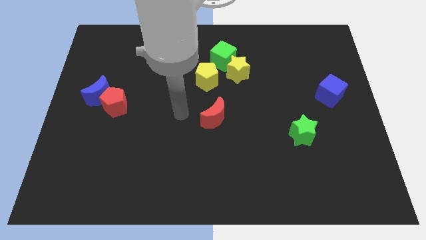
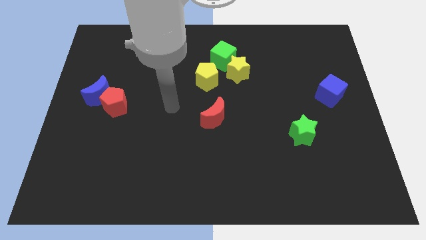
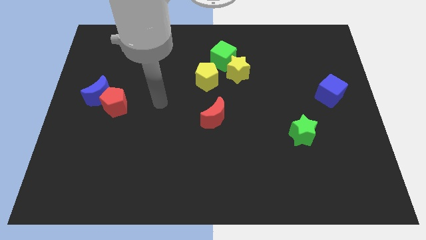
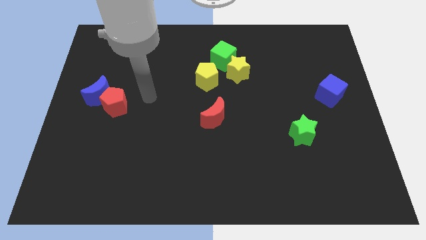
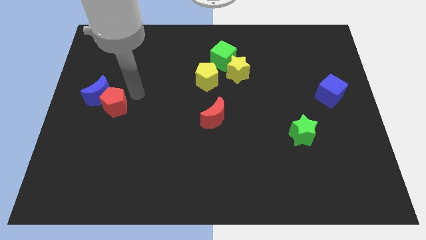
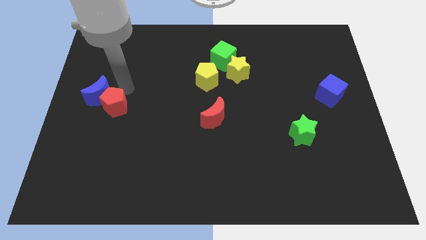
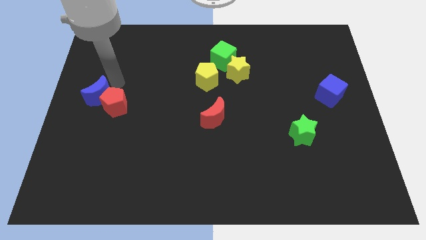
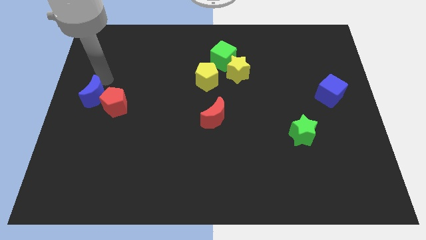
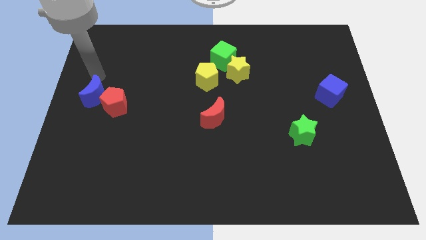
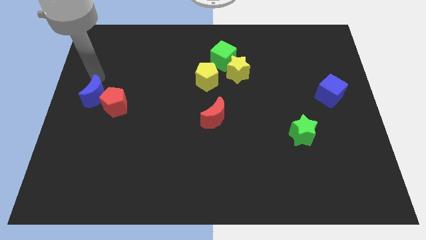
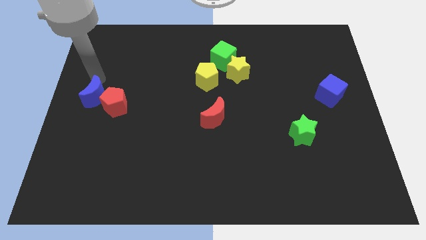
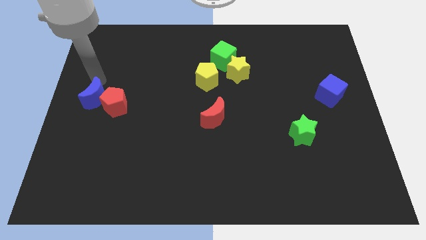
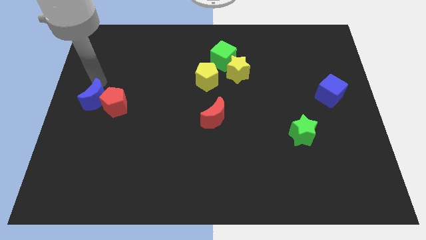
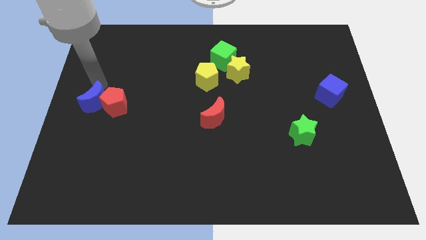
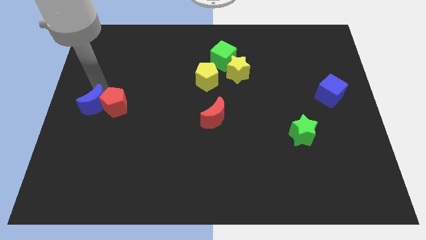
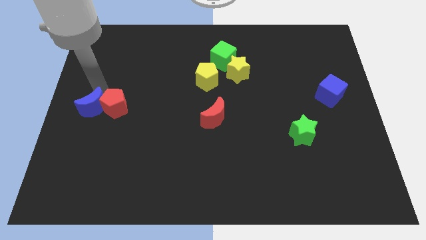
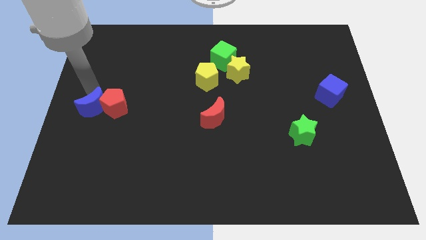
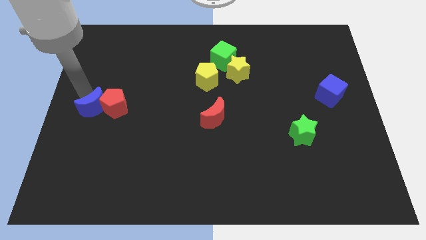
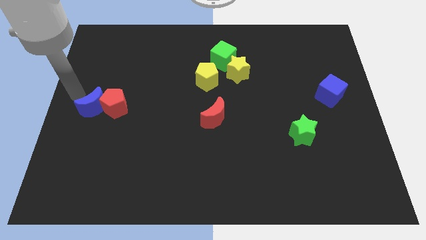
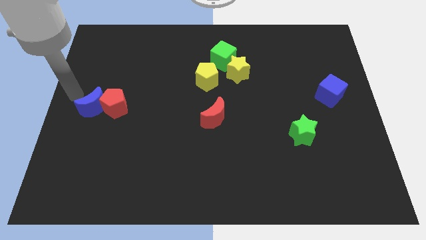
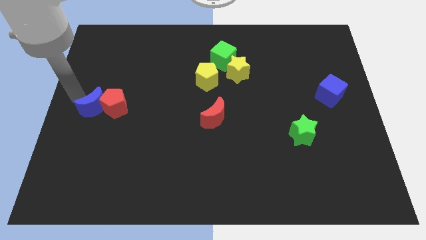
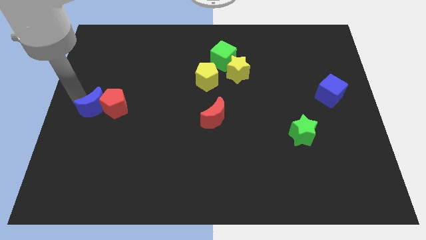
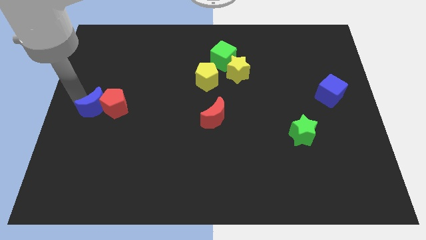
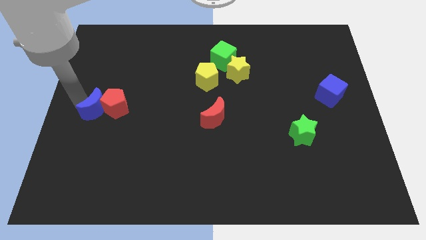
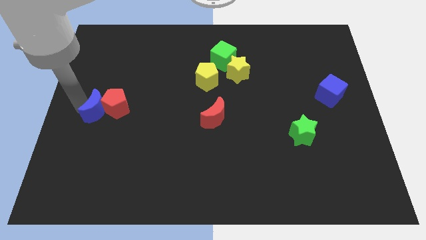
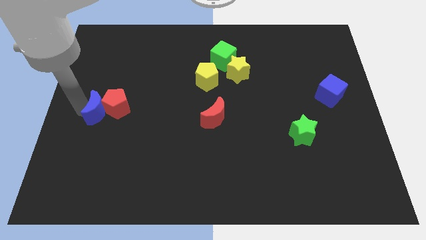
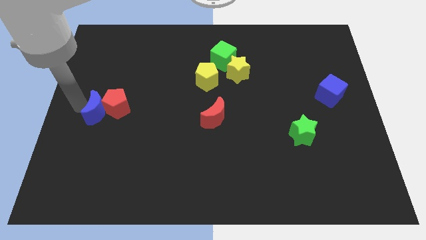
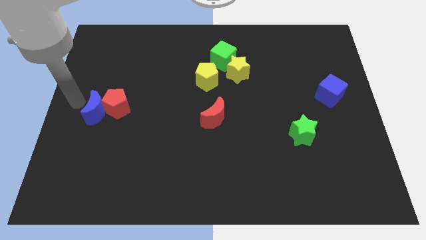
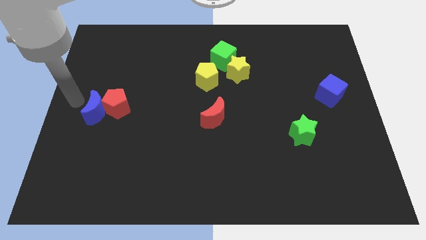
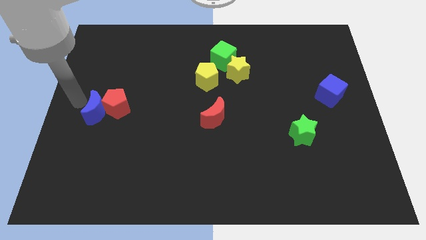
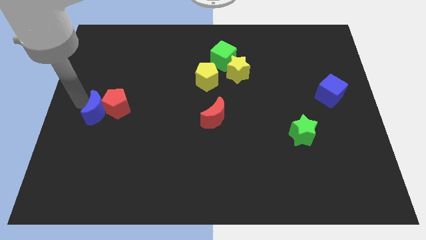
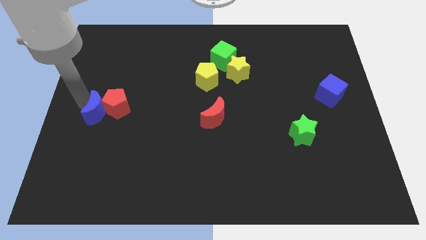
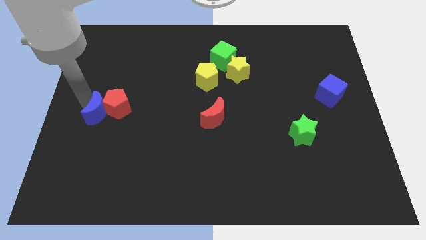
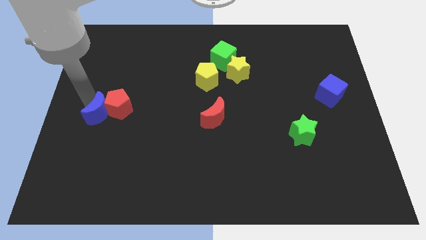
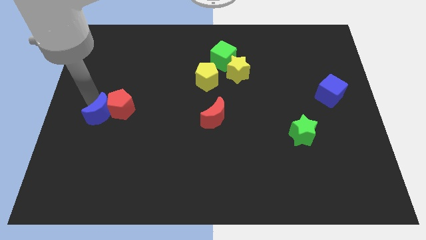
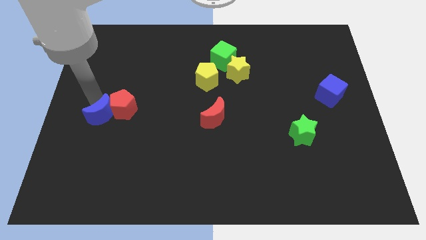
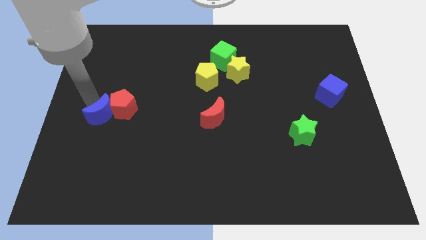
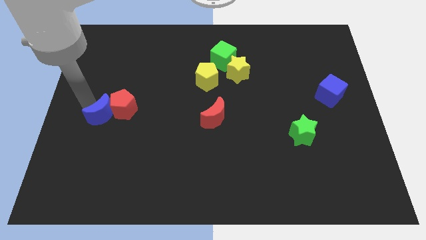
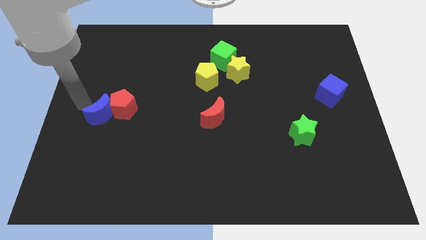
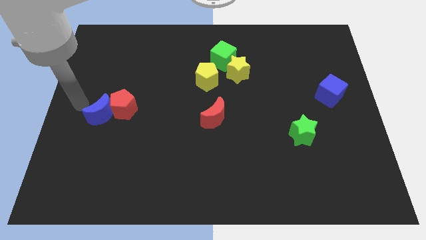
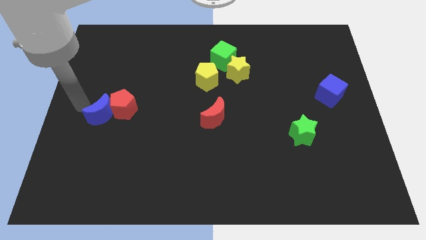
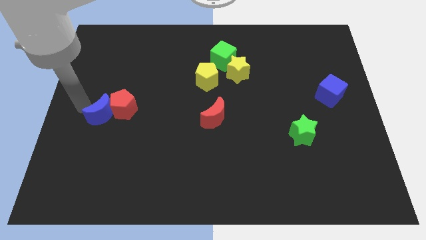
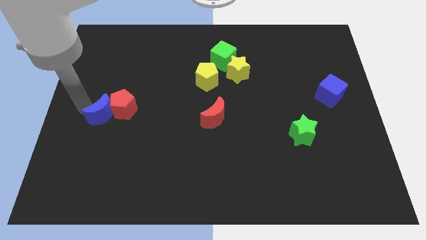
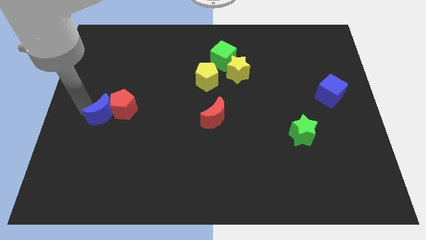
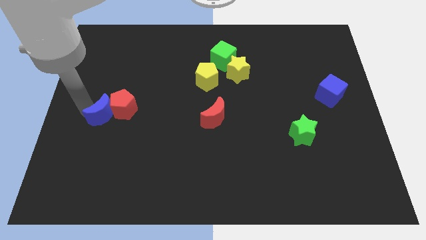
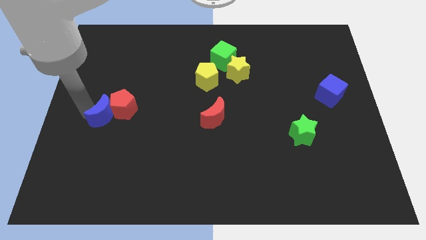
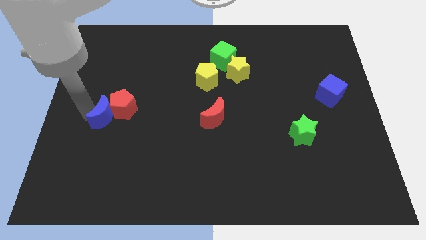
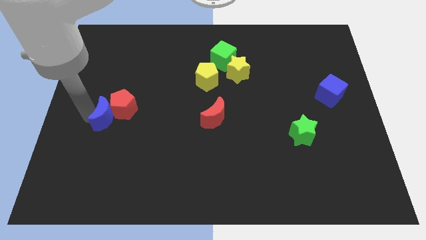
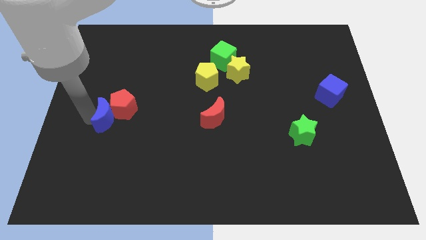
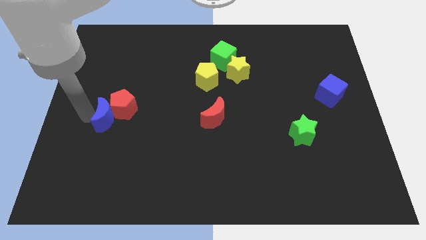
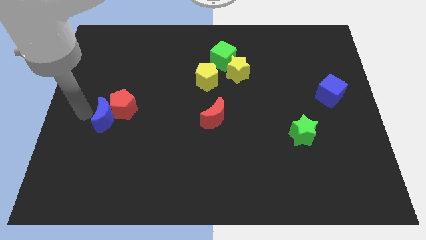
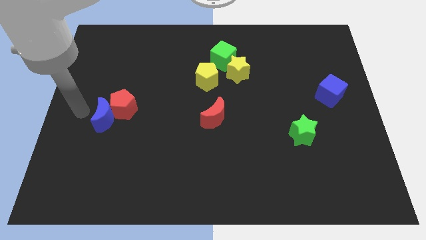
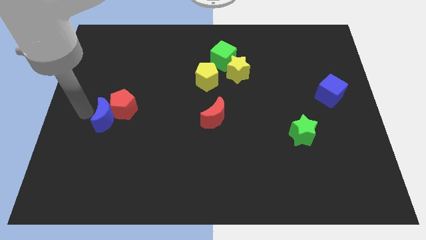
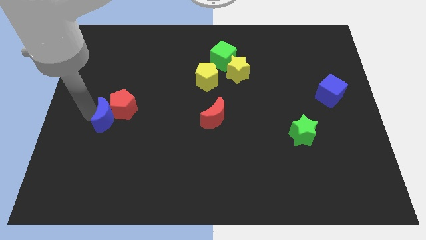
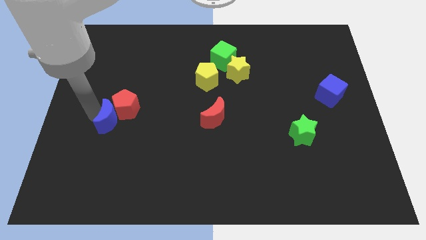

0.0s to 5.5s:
move the blue moon a little down and right diagonally

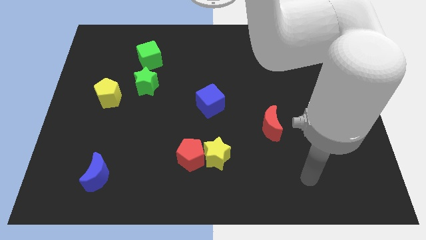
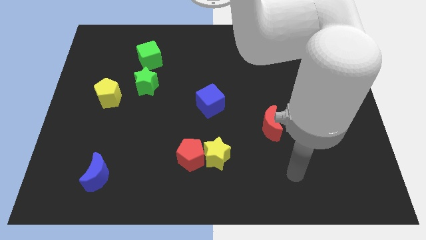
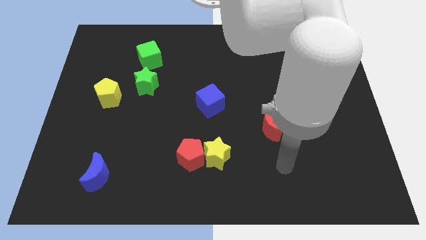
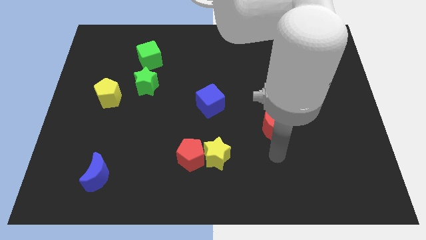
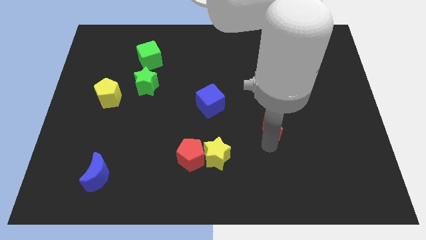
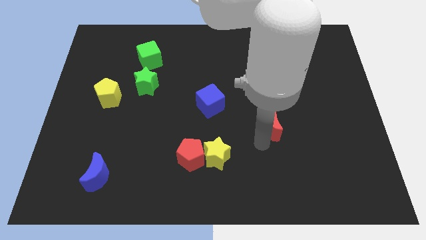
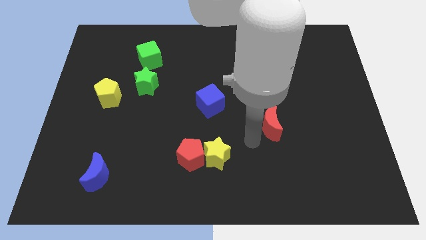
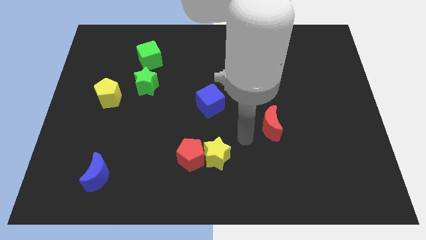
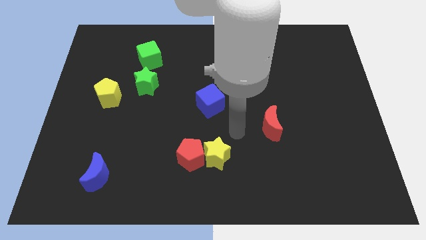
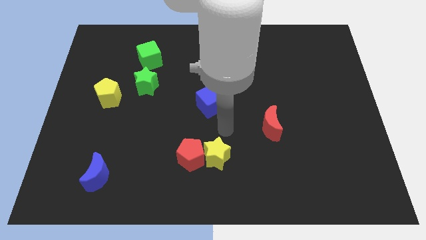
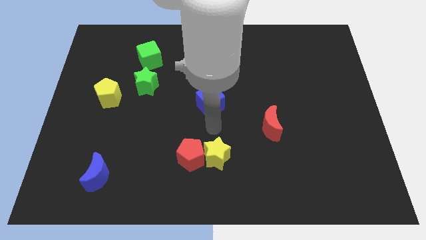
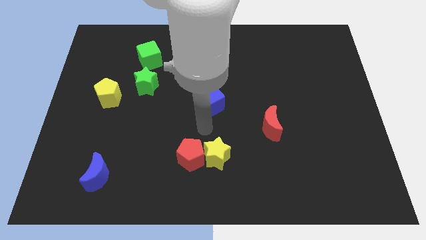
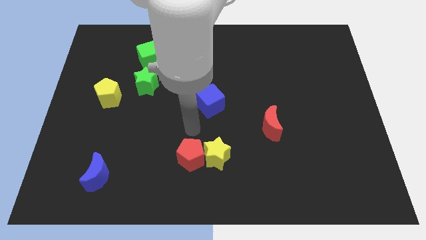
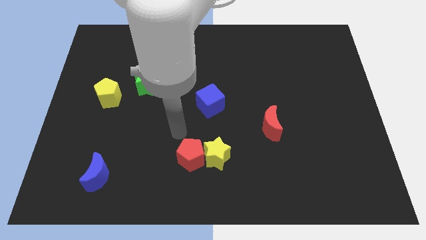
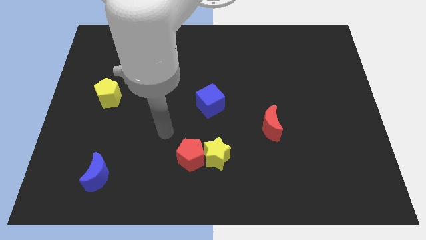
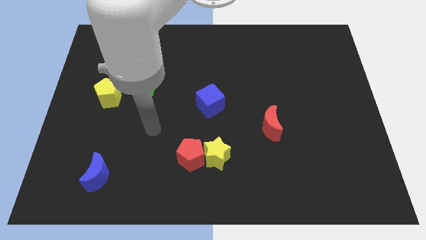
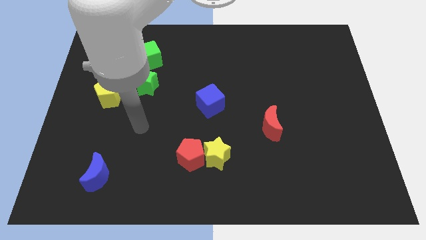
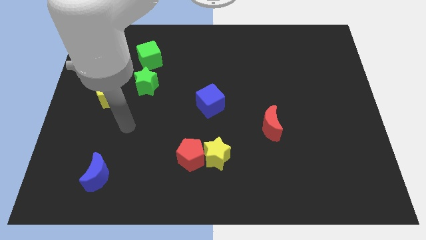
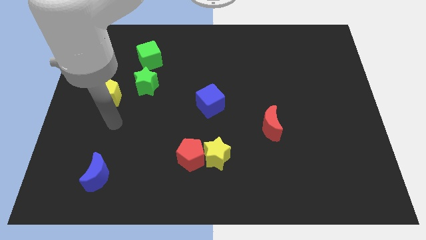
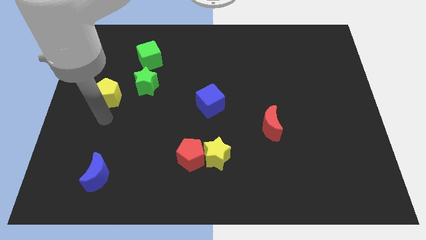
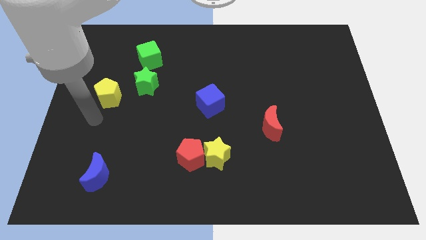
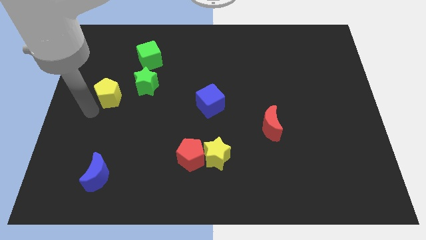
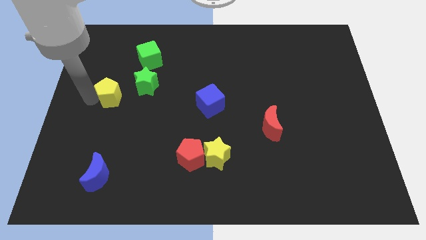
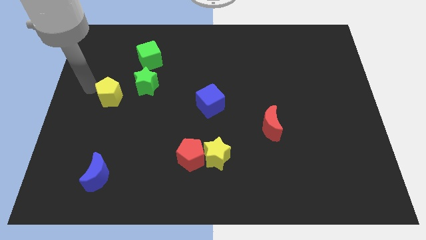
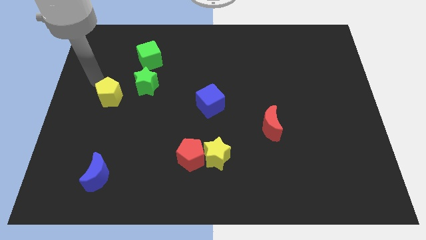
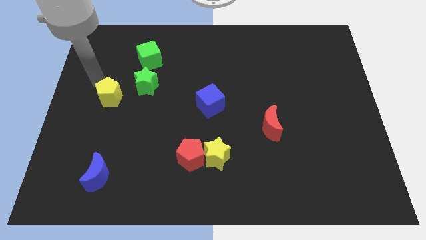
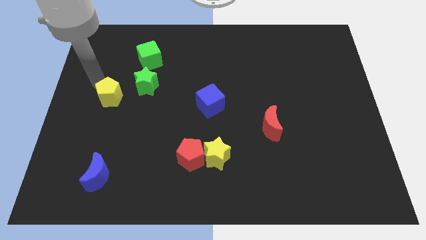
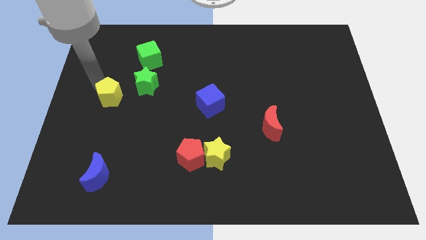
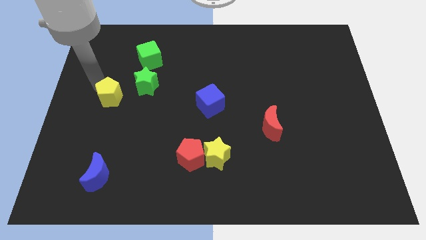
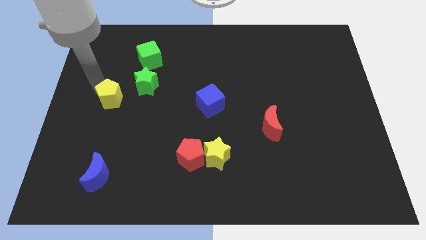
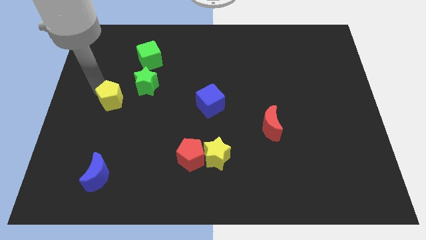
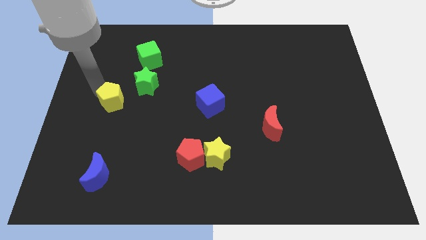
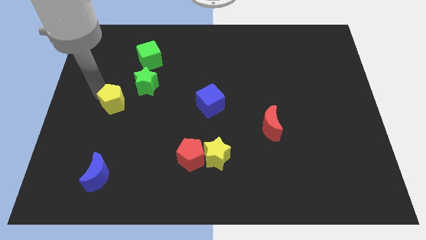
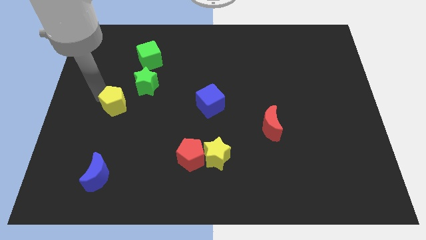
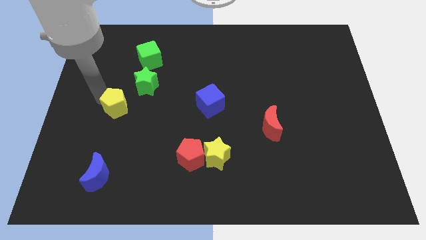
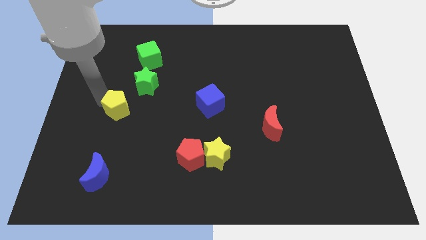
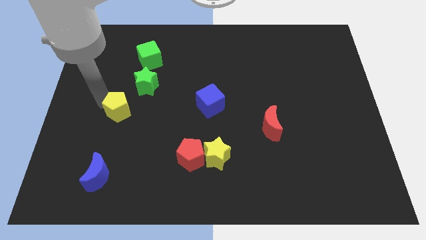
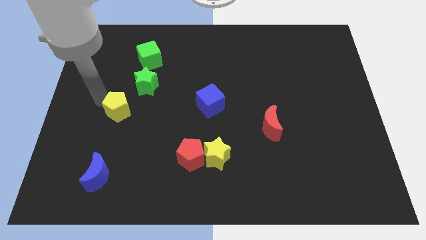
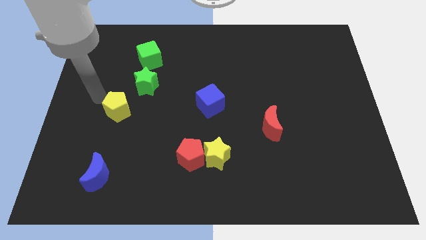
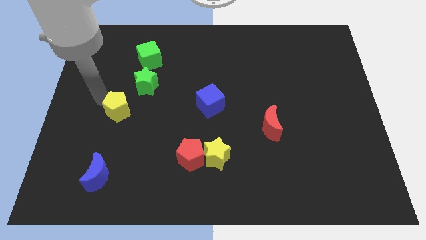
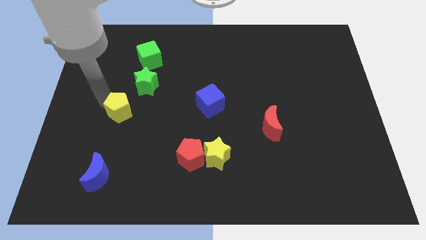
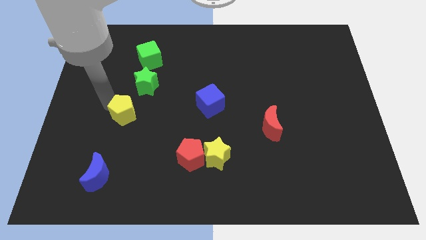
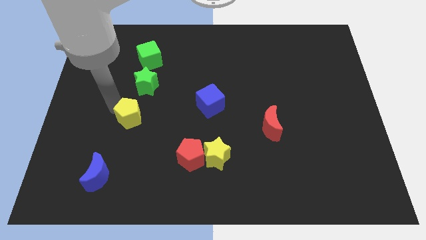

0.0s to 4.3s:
move the yellow pentagon down and then to the right slightly
